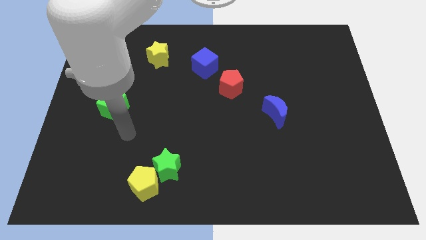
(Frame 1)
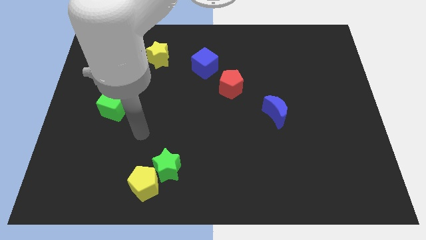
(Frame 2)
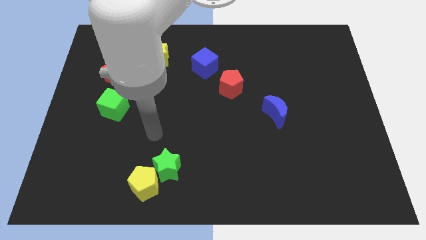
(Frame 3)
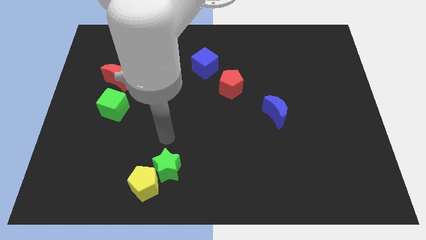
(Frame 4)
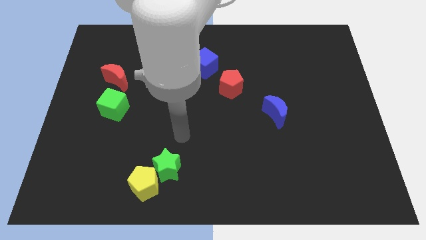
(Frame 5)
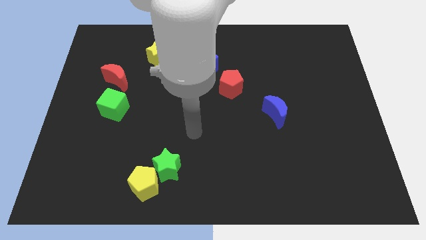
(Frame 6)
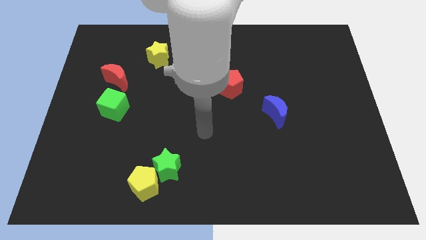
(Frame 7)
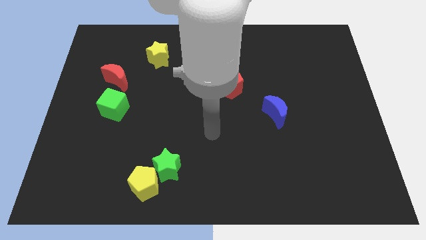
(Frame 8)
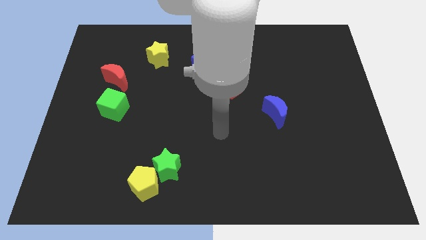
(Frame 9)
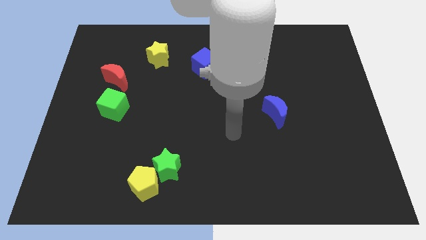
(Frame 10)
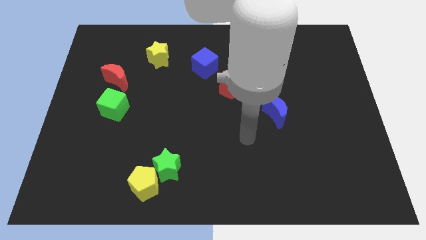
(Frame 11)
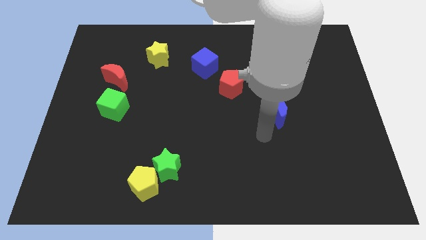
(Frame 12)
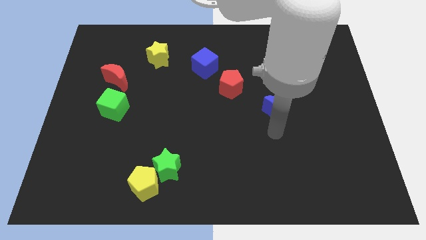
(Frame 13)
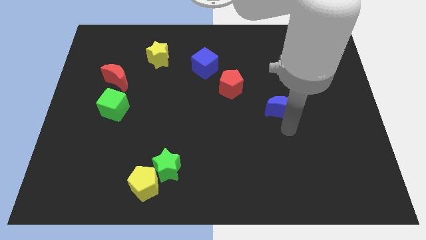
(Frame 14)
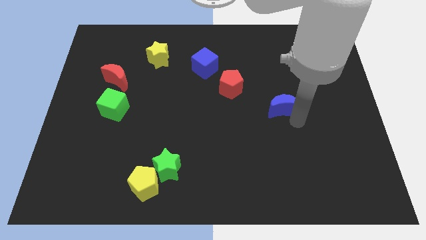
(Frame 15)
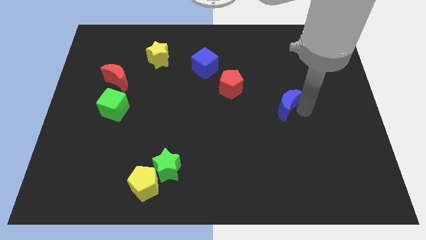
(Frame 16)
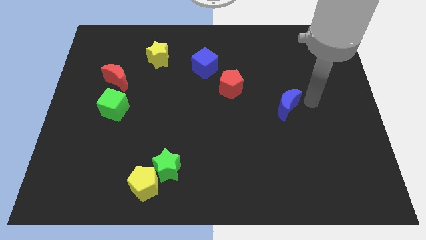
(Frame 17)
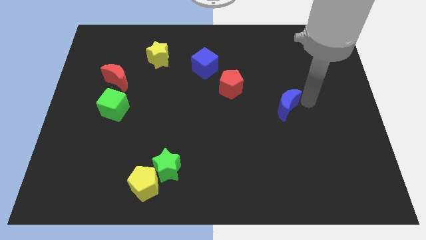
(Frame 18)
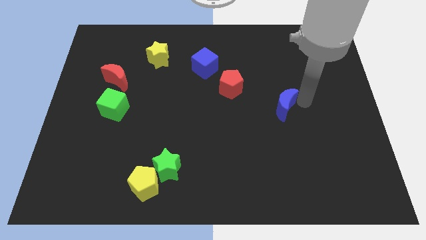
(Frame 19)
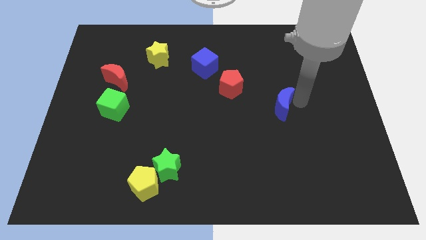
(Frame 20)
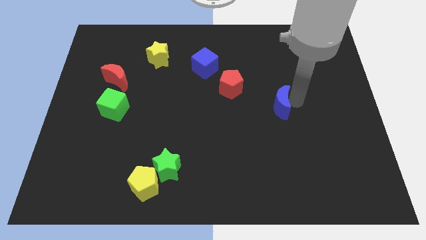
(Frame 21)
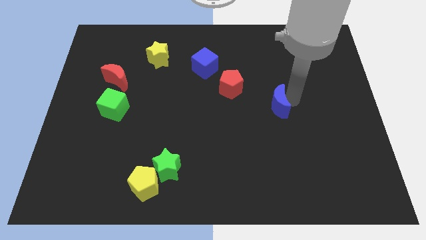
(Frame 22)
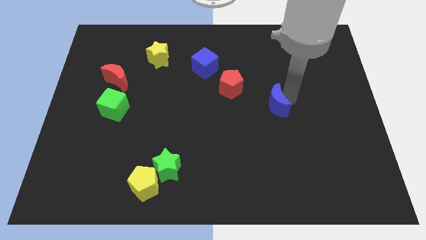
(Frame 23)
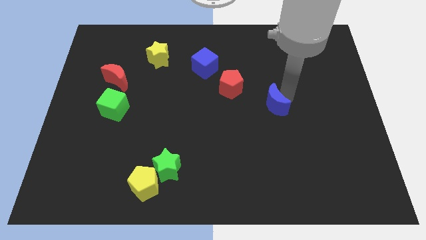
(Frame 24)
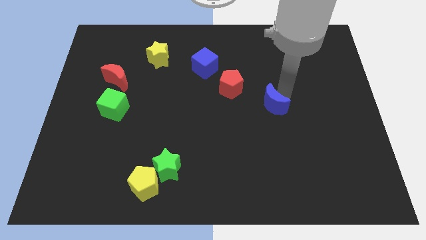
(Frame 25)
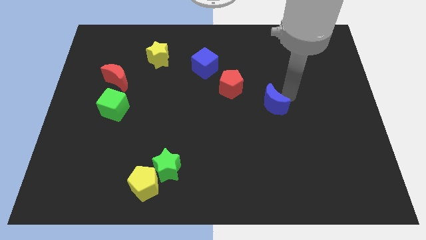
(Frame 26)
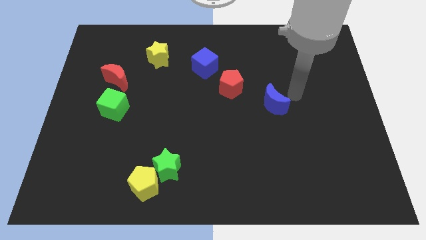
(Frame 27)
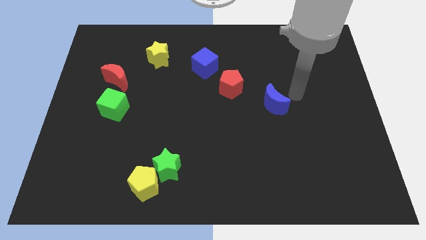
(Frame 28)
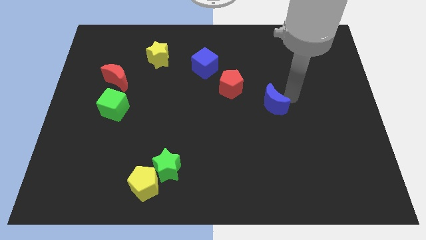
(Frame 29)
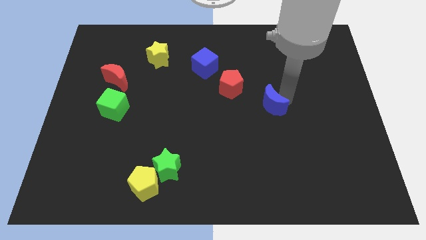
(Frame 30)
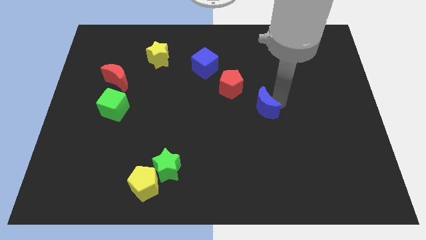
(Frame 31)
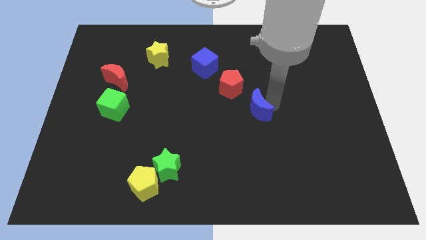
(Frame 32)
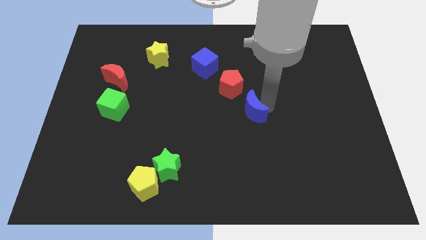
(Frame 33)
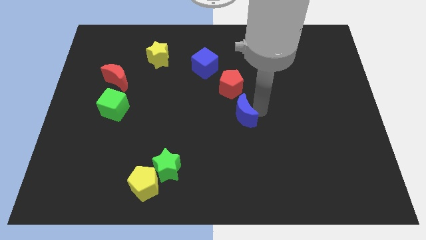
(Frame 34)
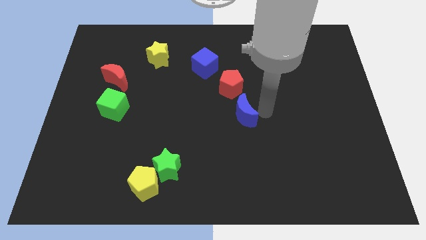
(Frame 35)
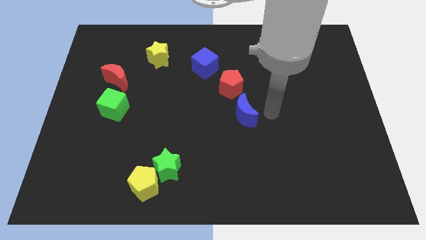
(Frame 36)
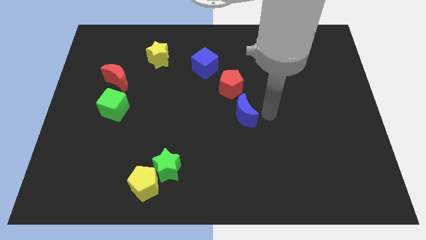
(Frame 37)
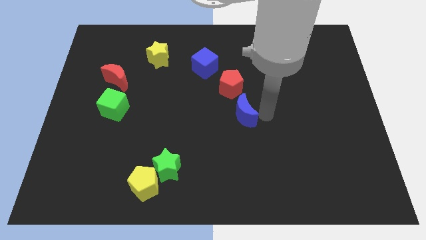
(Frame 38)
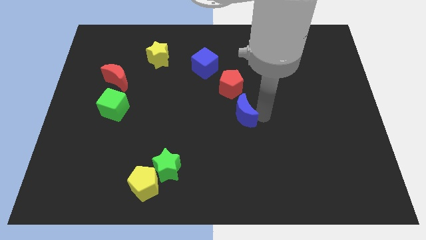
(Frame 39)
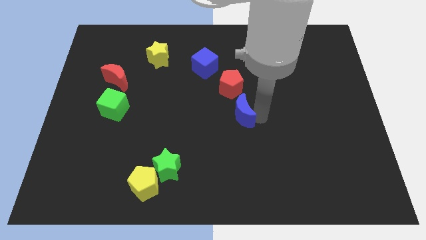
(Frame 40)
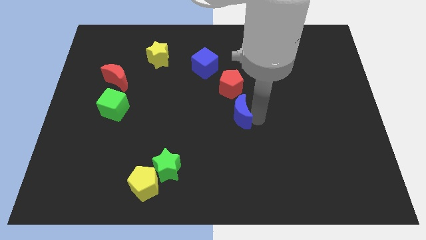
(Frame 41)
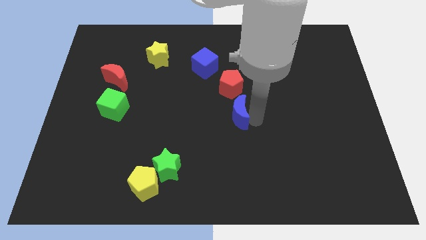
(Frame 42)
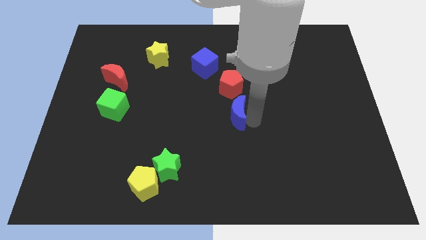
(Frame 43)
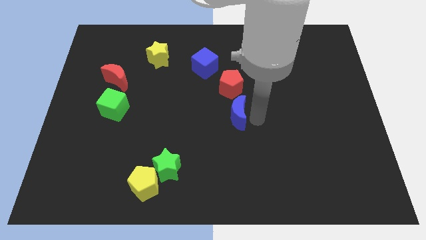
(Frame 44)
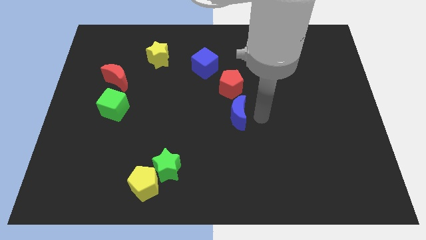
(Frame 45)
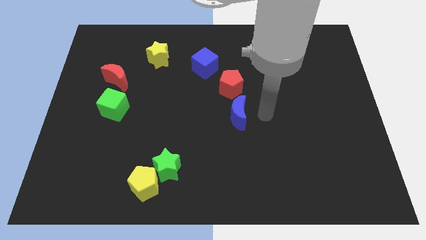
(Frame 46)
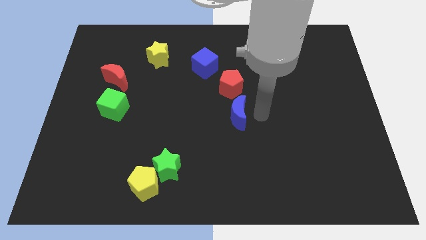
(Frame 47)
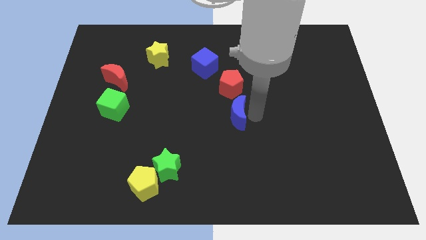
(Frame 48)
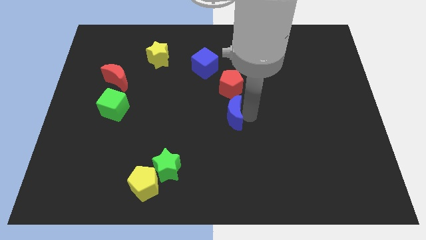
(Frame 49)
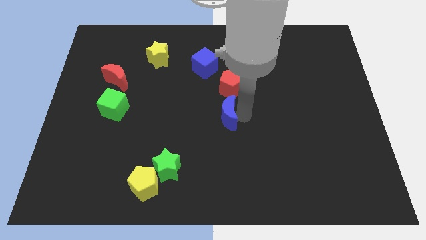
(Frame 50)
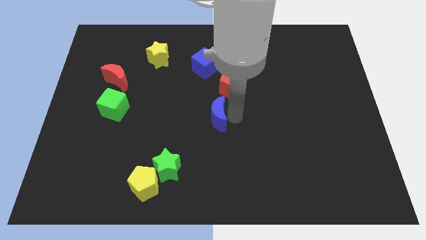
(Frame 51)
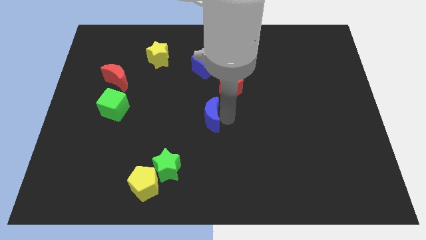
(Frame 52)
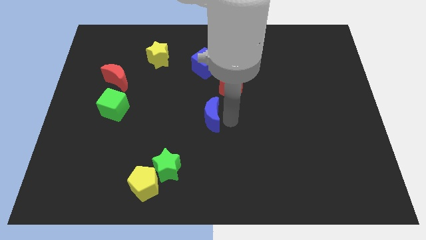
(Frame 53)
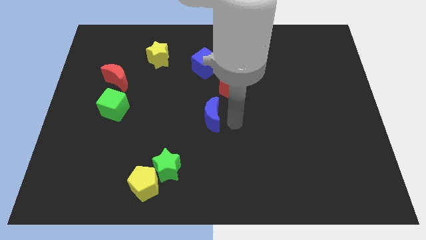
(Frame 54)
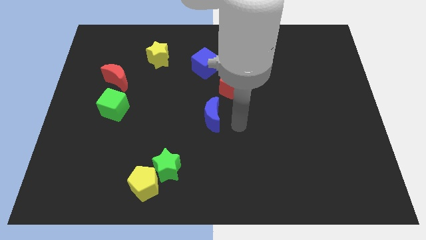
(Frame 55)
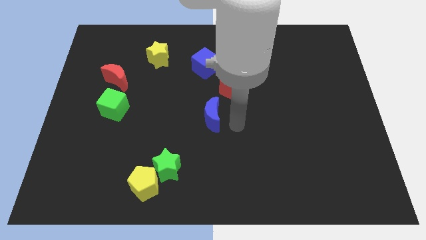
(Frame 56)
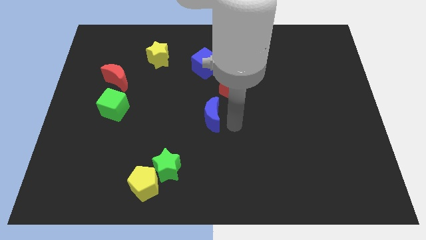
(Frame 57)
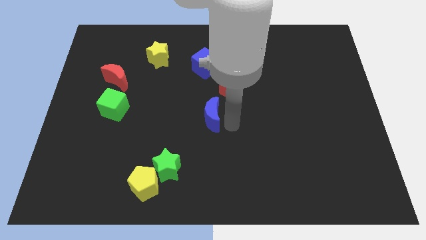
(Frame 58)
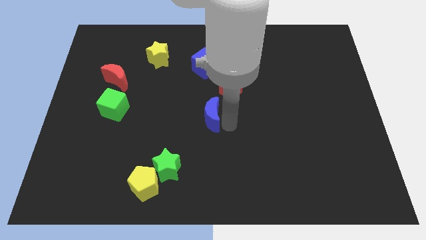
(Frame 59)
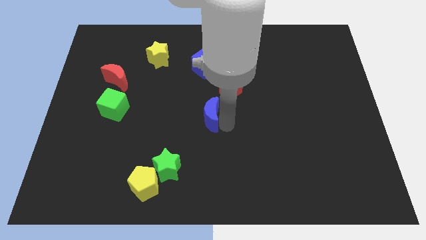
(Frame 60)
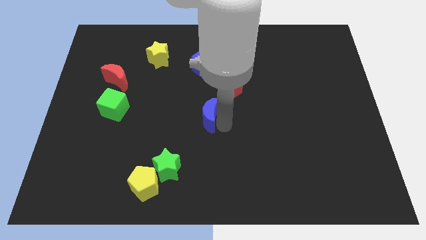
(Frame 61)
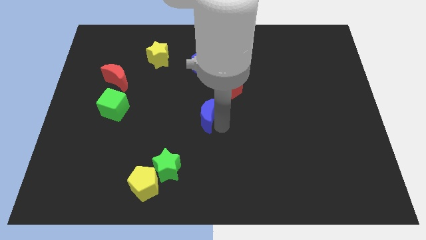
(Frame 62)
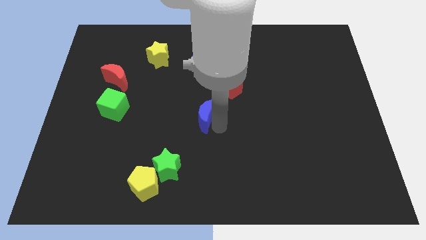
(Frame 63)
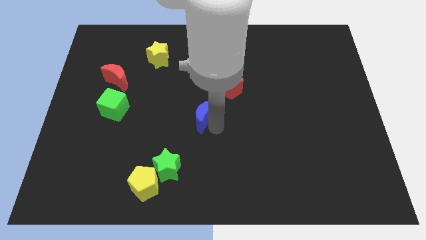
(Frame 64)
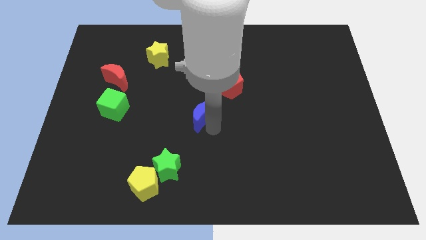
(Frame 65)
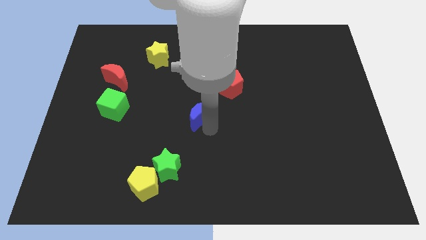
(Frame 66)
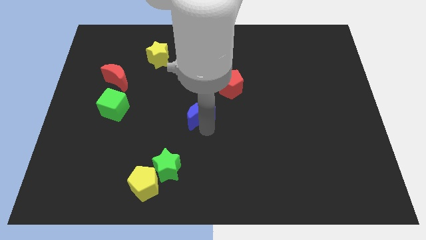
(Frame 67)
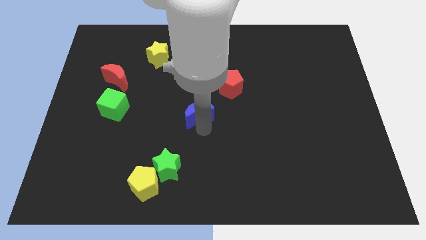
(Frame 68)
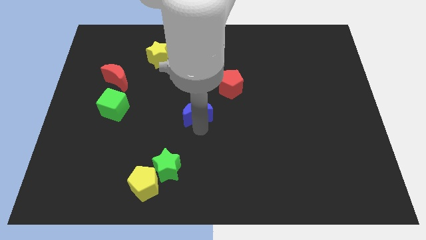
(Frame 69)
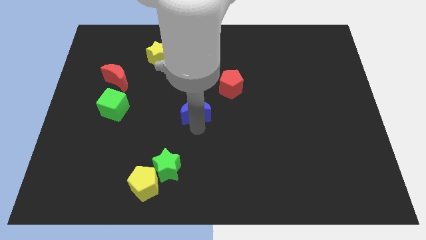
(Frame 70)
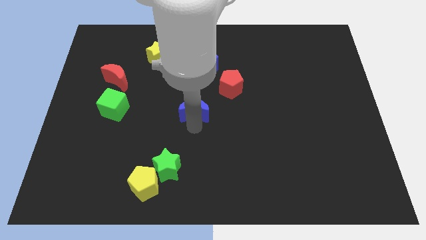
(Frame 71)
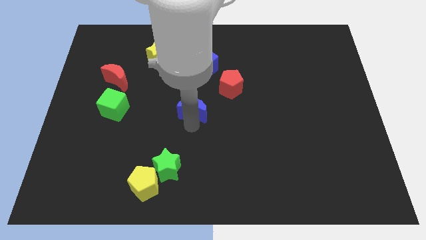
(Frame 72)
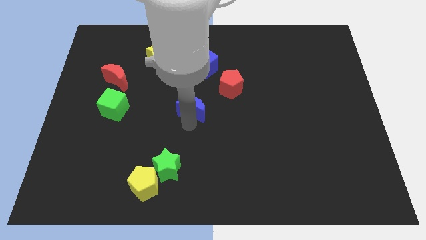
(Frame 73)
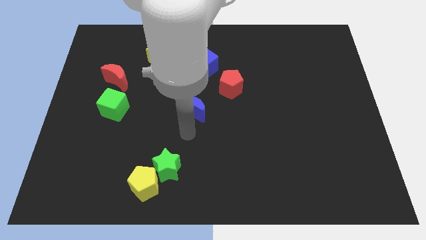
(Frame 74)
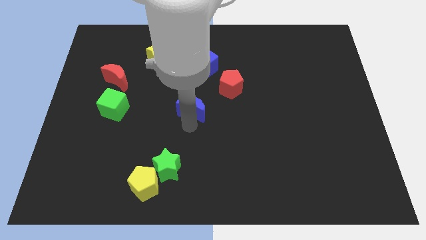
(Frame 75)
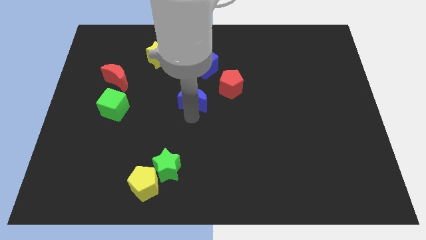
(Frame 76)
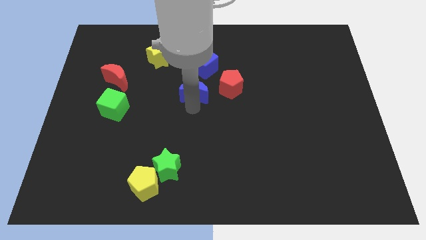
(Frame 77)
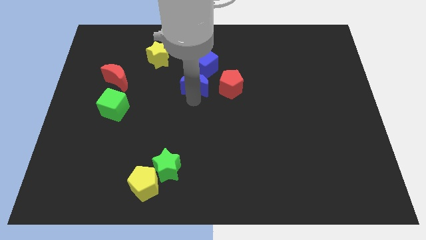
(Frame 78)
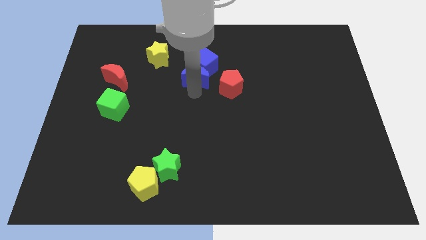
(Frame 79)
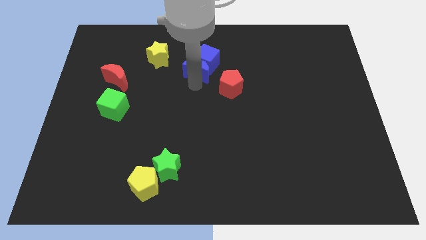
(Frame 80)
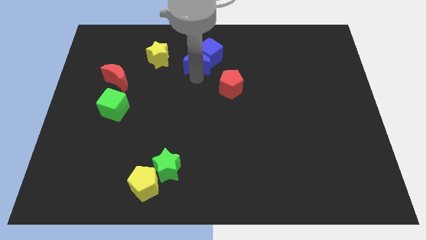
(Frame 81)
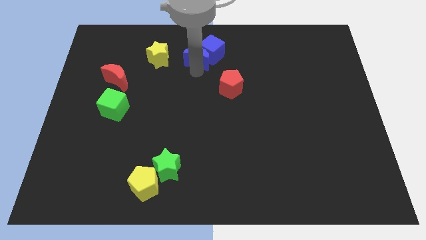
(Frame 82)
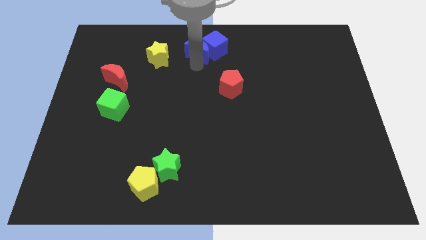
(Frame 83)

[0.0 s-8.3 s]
put the blue moon to the top
